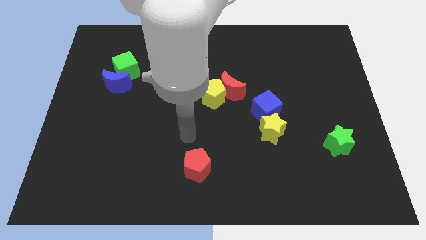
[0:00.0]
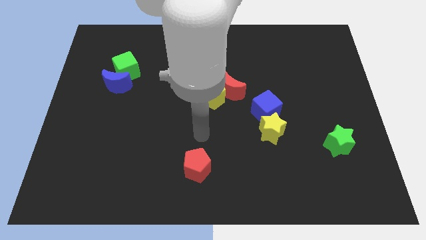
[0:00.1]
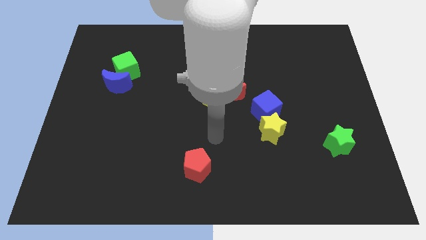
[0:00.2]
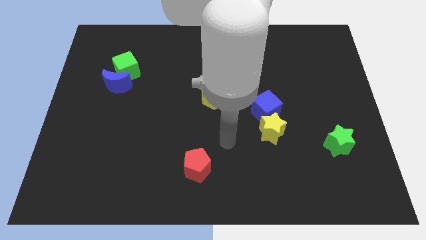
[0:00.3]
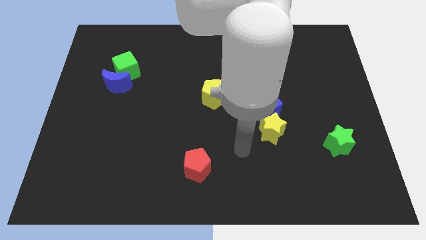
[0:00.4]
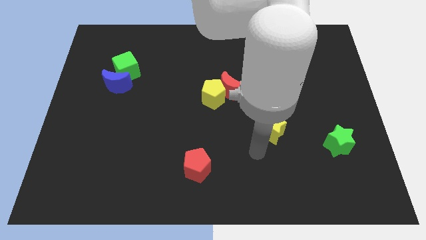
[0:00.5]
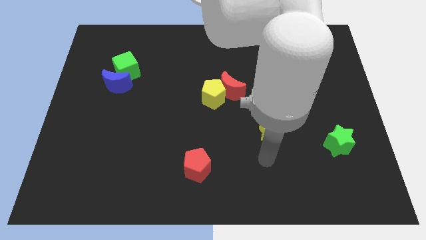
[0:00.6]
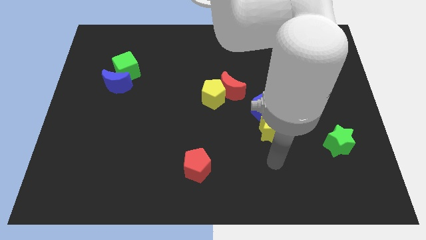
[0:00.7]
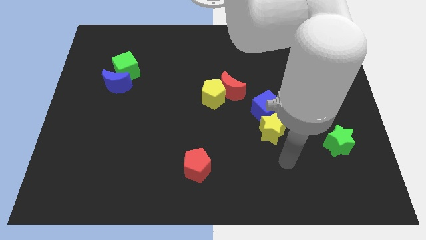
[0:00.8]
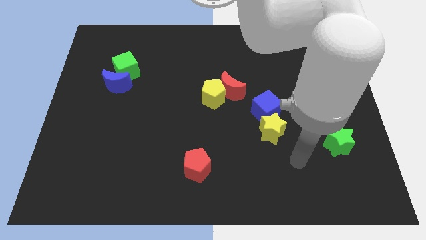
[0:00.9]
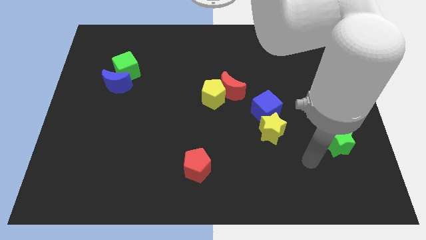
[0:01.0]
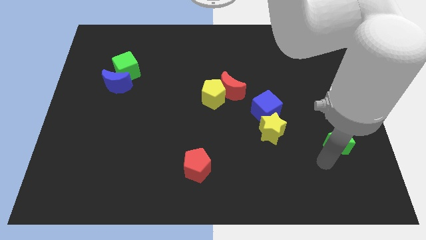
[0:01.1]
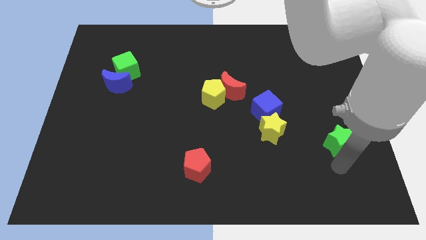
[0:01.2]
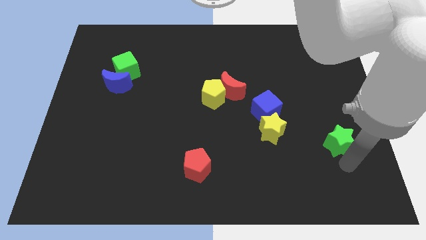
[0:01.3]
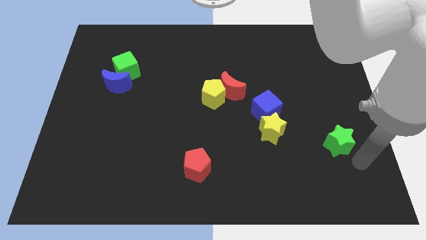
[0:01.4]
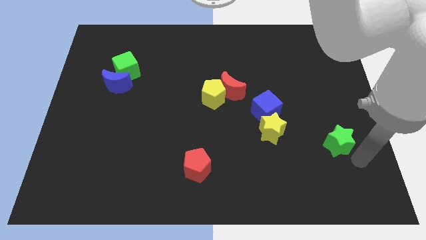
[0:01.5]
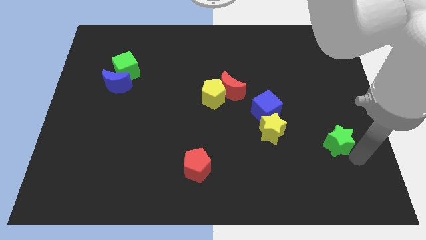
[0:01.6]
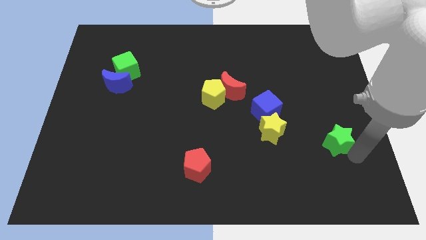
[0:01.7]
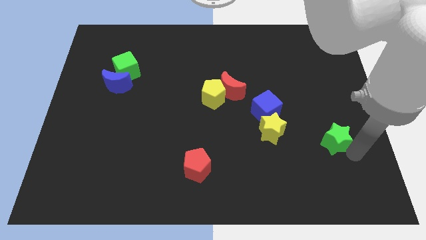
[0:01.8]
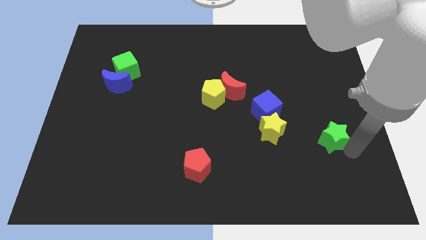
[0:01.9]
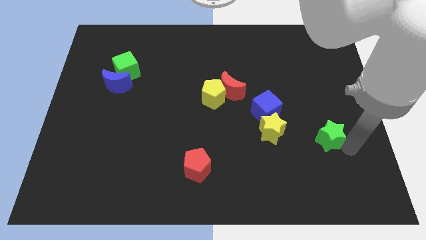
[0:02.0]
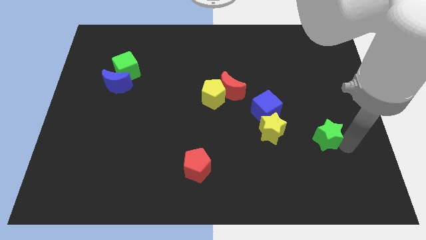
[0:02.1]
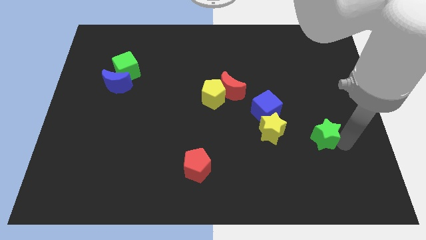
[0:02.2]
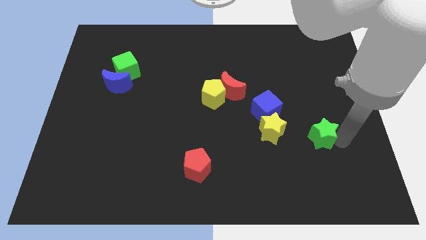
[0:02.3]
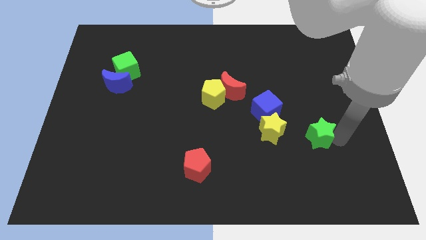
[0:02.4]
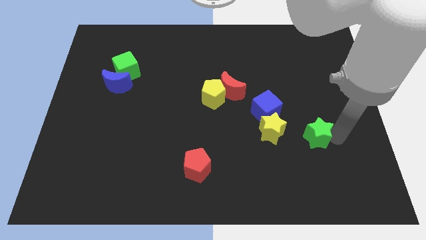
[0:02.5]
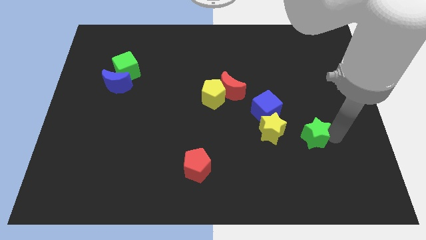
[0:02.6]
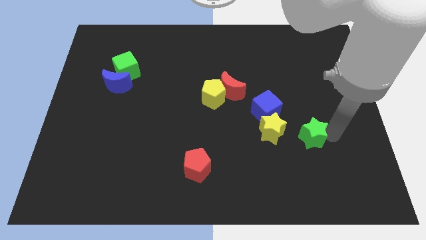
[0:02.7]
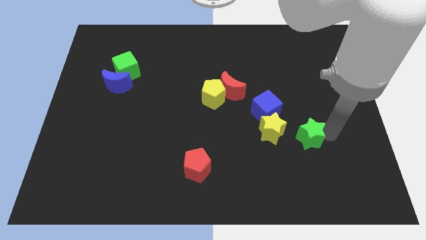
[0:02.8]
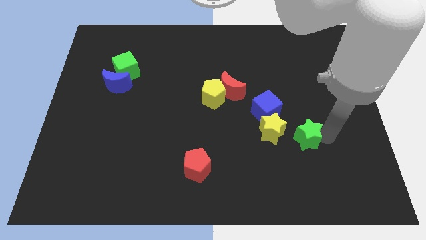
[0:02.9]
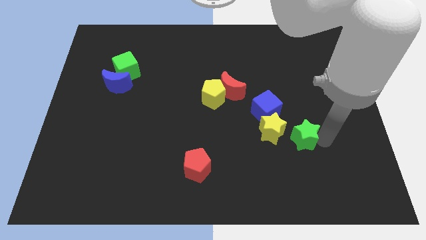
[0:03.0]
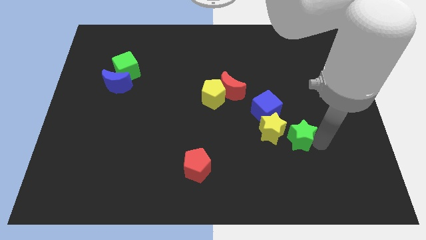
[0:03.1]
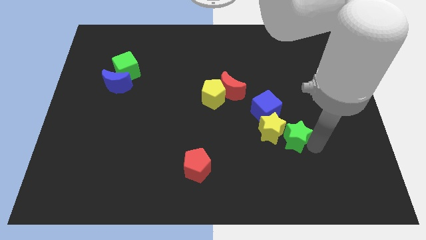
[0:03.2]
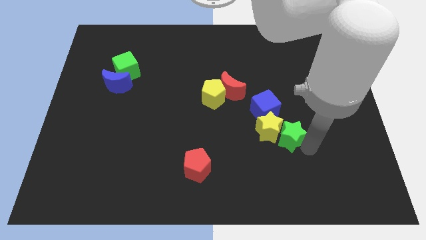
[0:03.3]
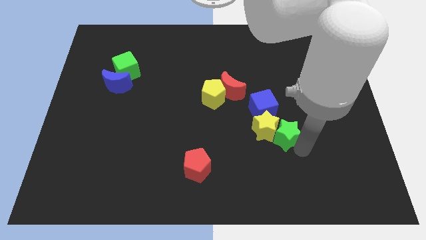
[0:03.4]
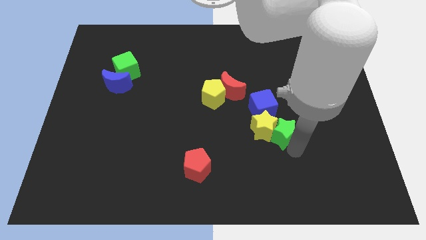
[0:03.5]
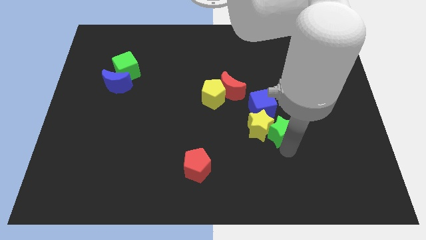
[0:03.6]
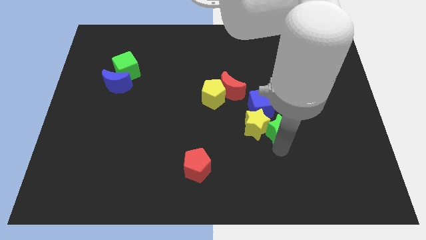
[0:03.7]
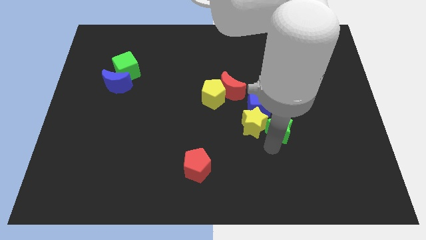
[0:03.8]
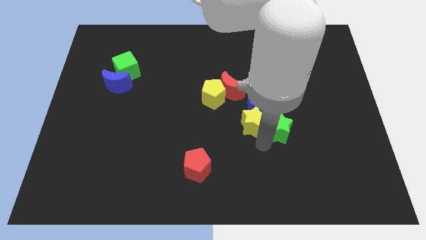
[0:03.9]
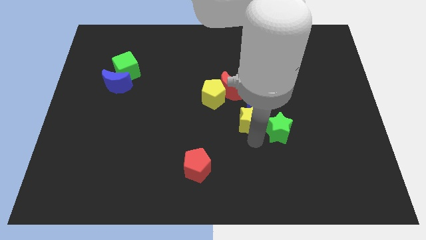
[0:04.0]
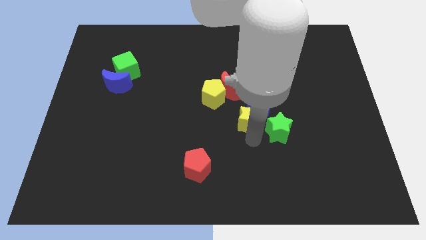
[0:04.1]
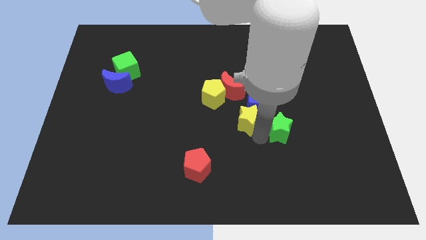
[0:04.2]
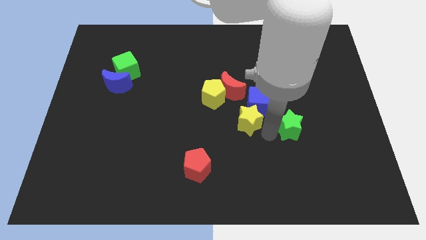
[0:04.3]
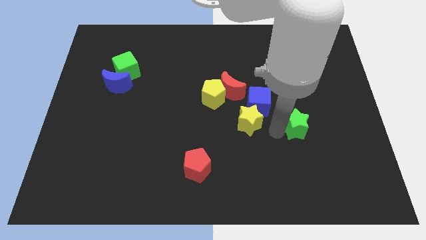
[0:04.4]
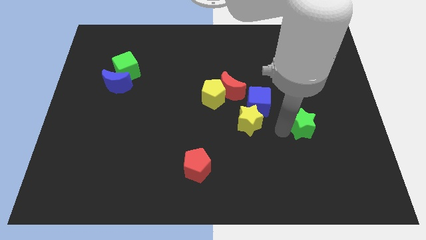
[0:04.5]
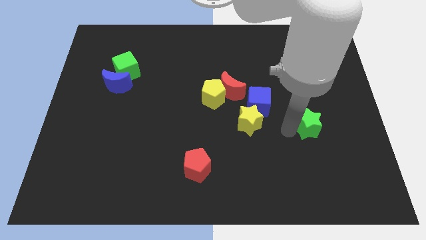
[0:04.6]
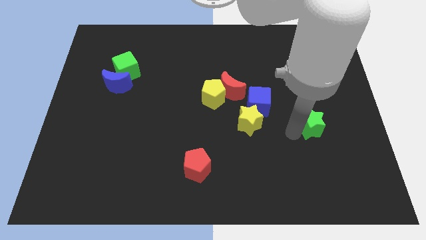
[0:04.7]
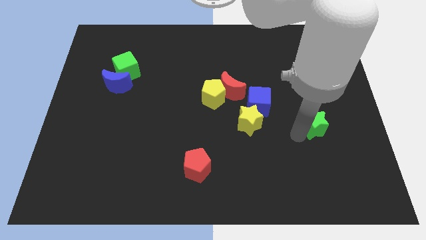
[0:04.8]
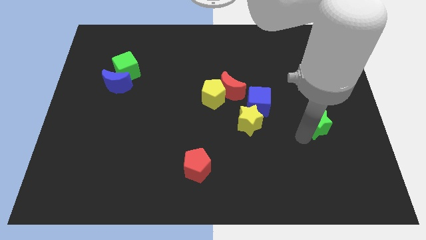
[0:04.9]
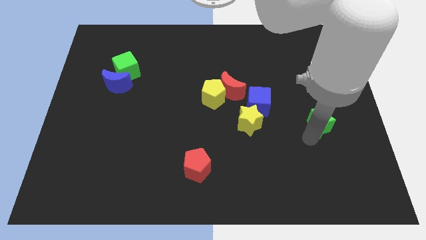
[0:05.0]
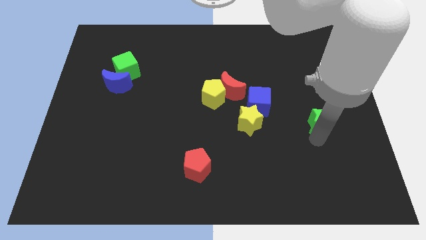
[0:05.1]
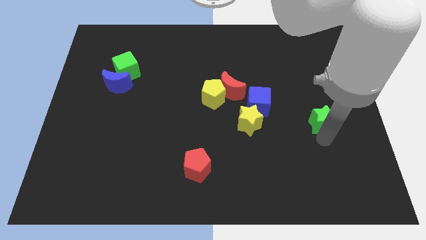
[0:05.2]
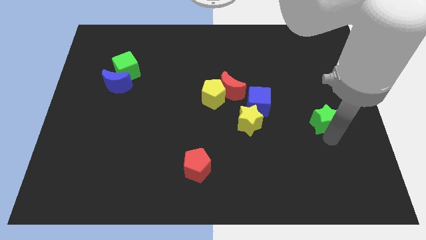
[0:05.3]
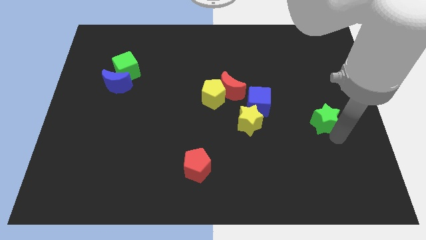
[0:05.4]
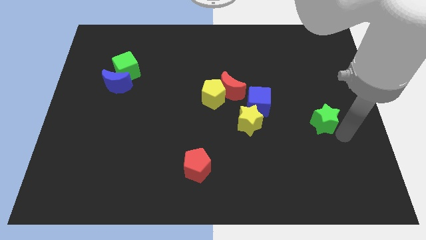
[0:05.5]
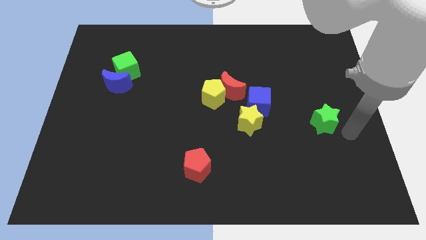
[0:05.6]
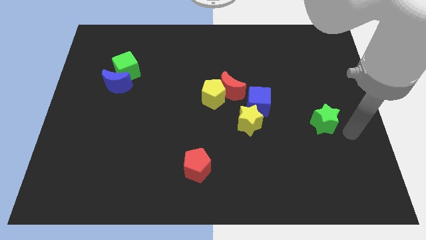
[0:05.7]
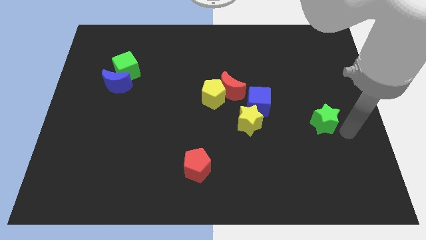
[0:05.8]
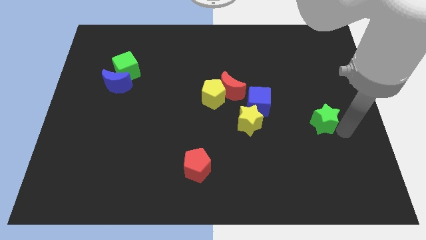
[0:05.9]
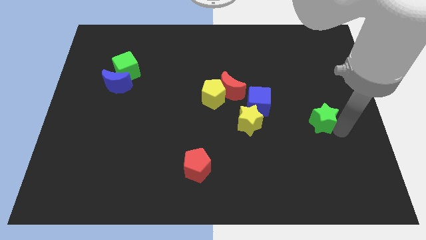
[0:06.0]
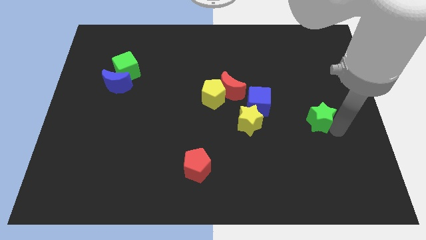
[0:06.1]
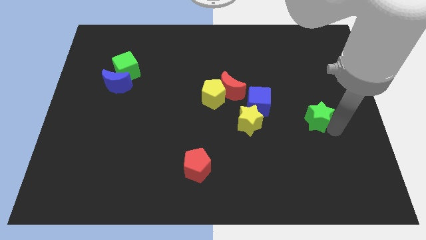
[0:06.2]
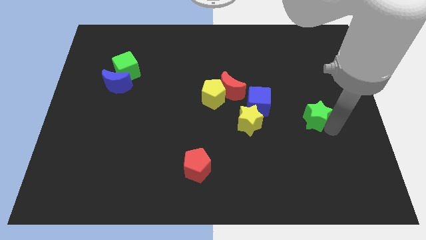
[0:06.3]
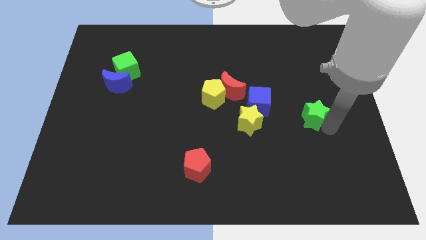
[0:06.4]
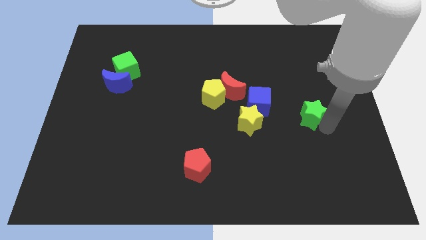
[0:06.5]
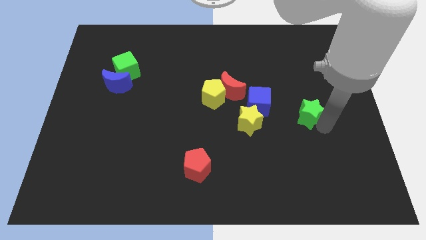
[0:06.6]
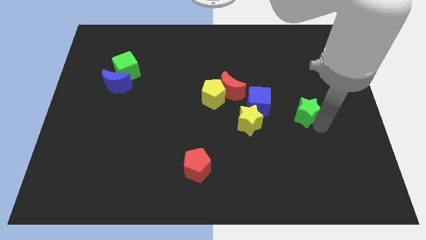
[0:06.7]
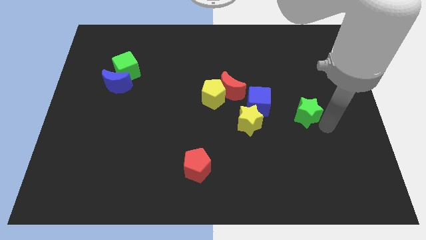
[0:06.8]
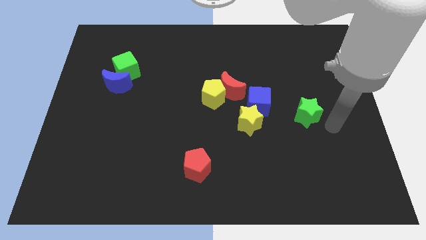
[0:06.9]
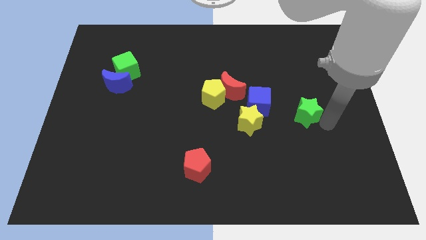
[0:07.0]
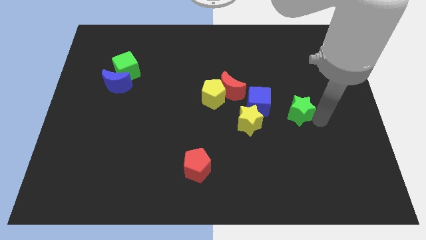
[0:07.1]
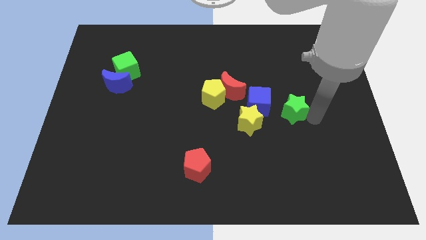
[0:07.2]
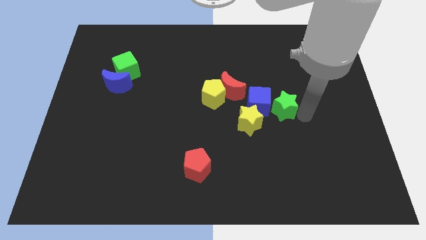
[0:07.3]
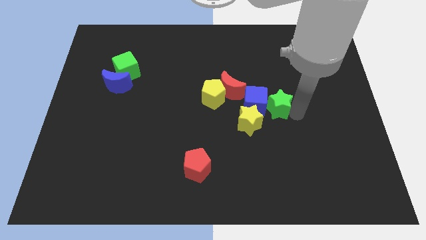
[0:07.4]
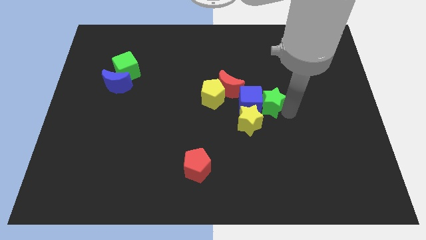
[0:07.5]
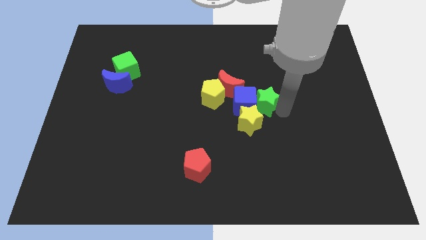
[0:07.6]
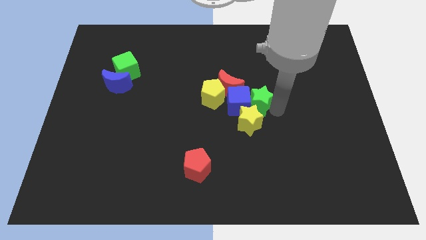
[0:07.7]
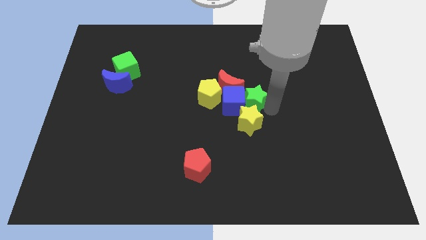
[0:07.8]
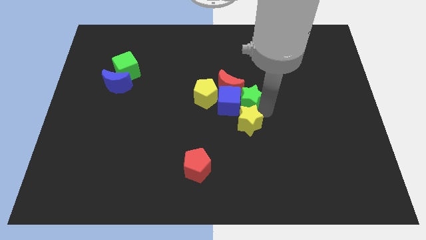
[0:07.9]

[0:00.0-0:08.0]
slide the green star upwards and to the left diagonally

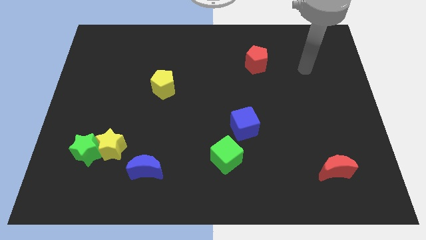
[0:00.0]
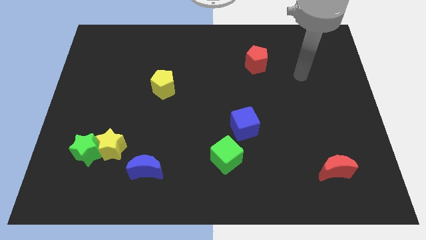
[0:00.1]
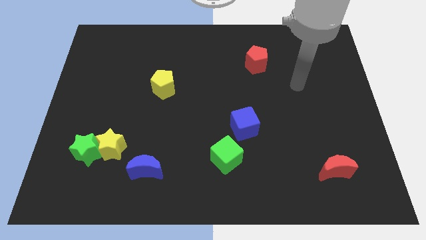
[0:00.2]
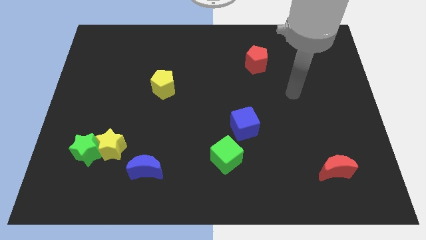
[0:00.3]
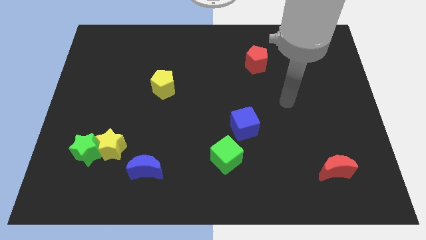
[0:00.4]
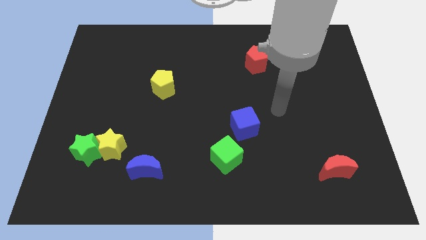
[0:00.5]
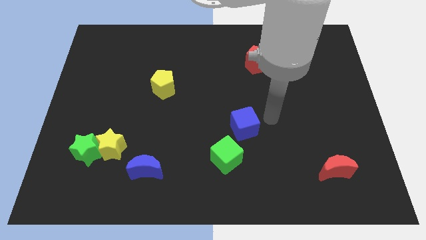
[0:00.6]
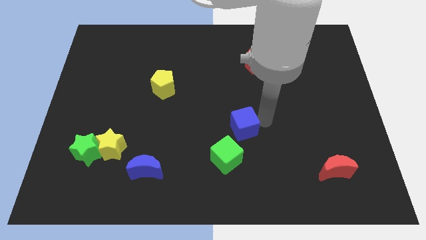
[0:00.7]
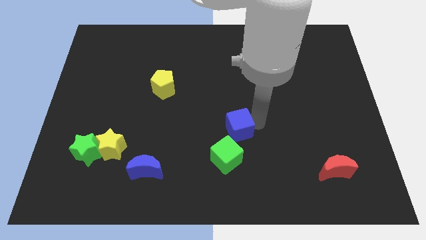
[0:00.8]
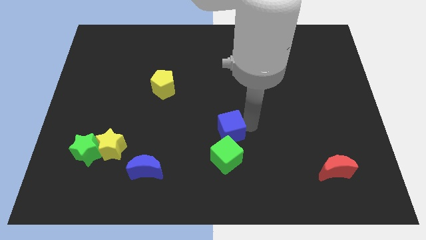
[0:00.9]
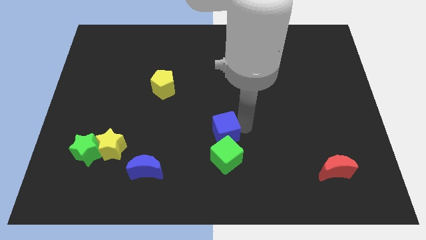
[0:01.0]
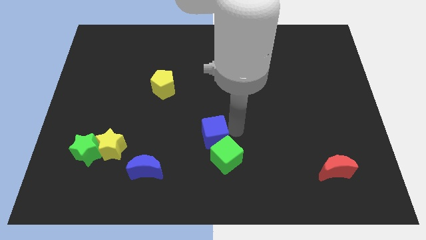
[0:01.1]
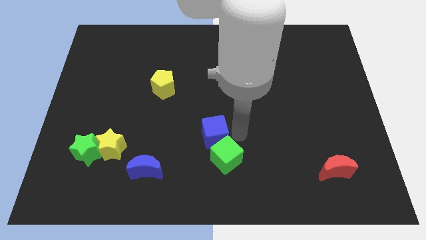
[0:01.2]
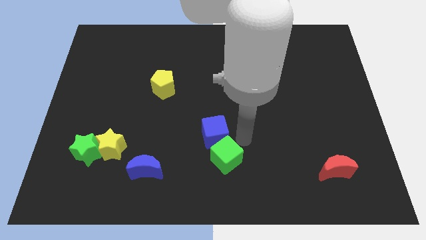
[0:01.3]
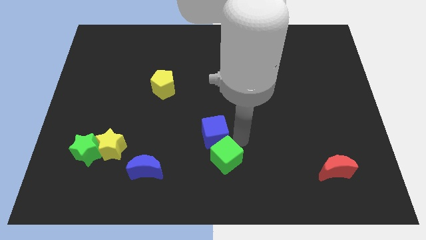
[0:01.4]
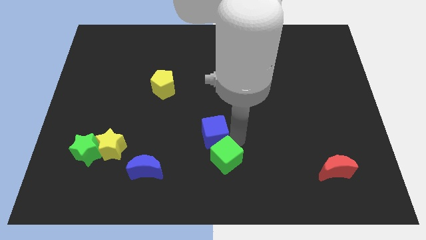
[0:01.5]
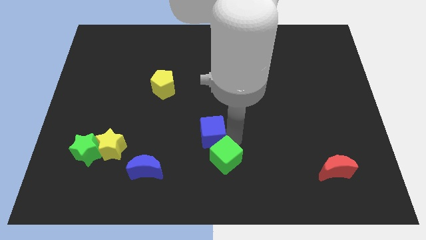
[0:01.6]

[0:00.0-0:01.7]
slightly slide the blue cube left
